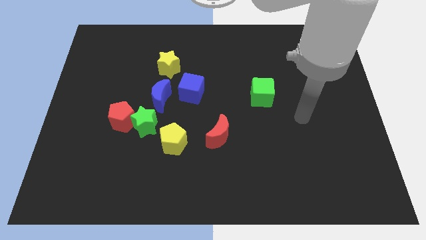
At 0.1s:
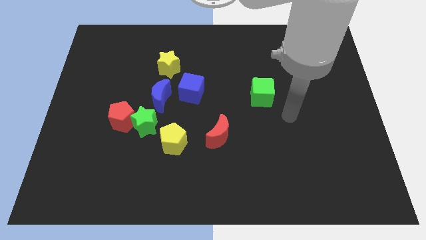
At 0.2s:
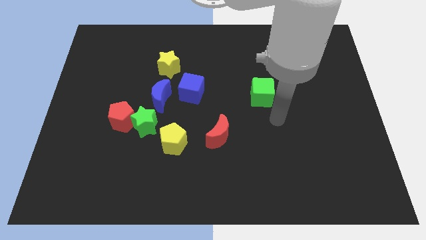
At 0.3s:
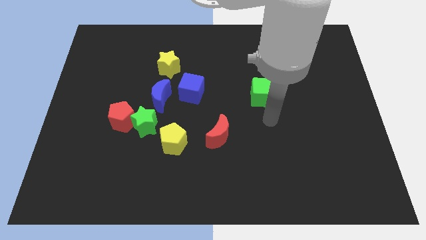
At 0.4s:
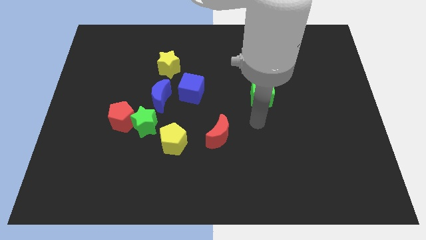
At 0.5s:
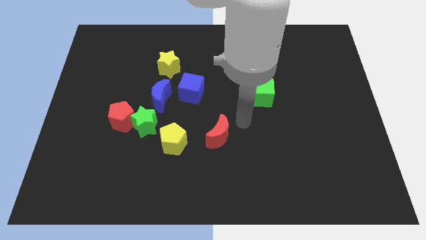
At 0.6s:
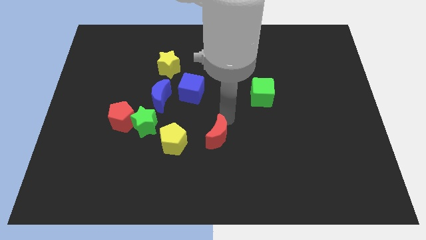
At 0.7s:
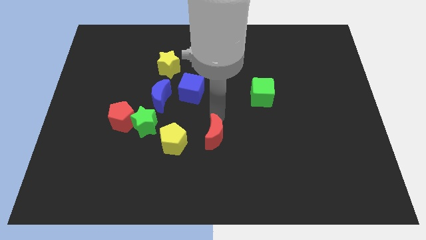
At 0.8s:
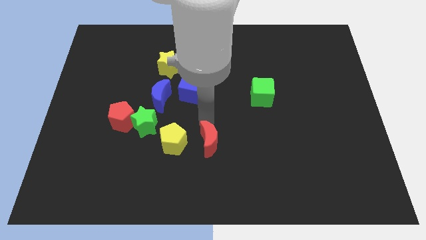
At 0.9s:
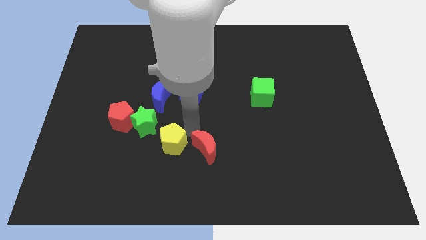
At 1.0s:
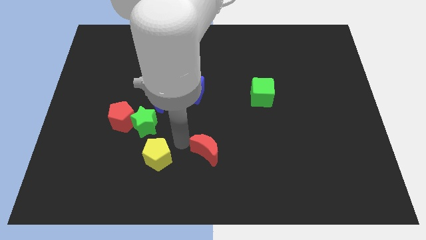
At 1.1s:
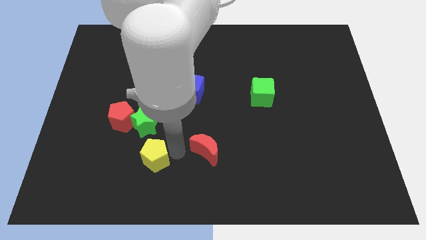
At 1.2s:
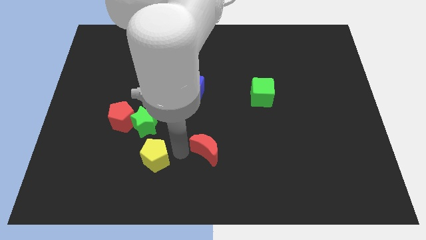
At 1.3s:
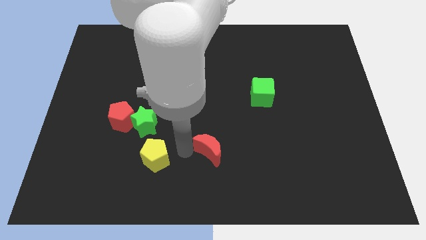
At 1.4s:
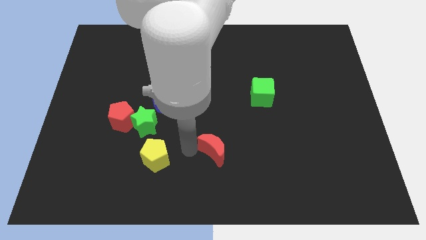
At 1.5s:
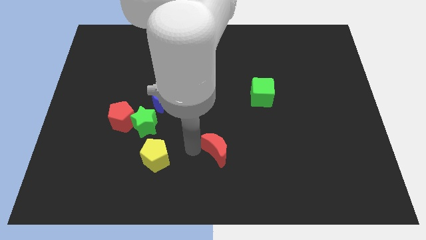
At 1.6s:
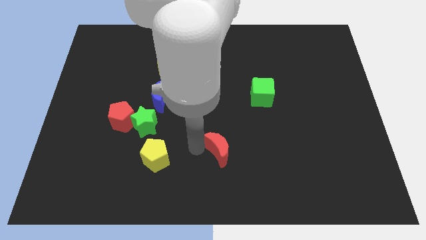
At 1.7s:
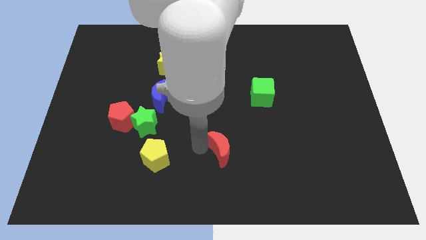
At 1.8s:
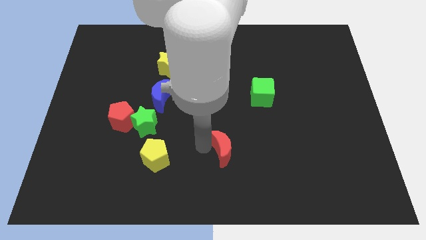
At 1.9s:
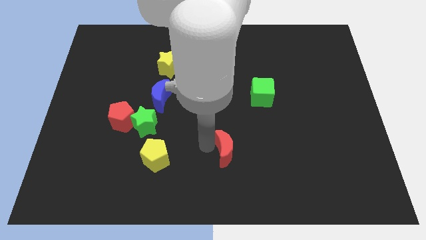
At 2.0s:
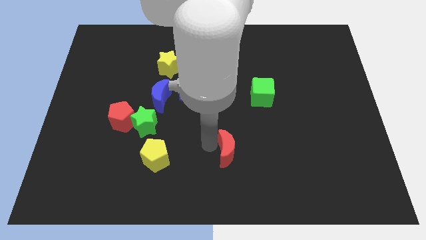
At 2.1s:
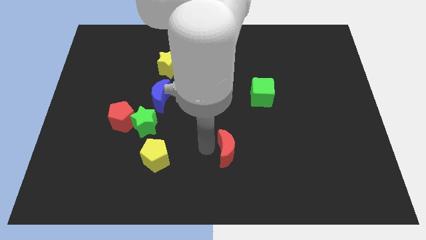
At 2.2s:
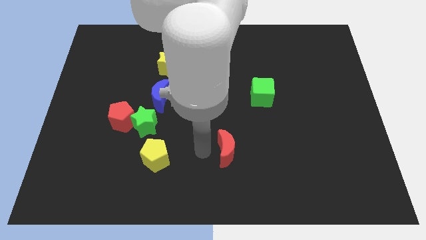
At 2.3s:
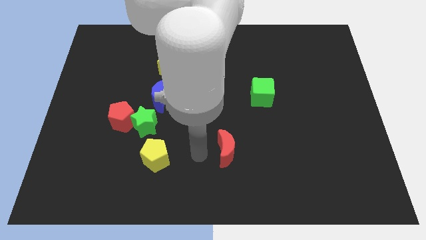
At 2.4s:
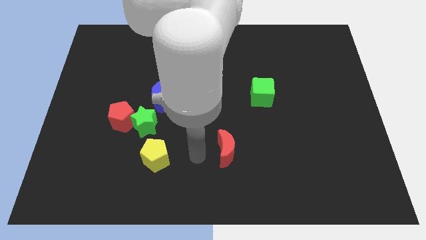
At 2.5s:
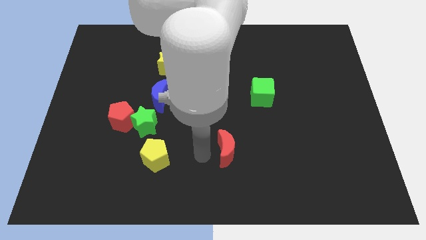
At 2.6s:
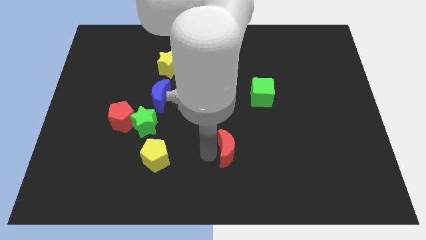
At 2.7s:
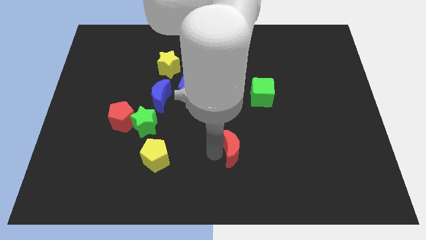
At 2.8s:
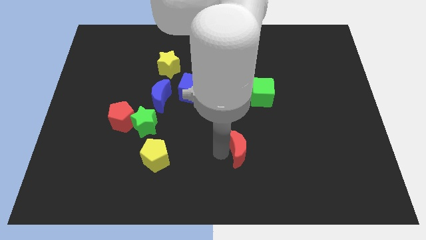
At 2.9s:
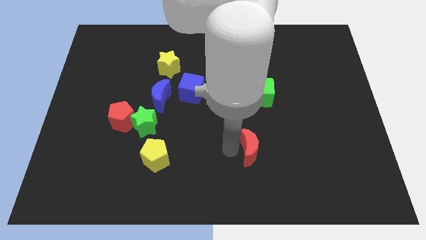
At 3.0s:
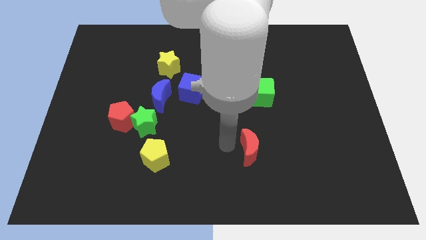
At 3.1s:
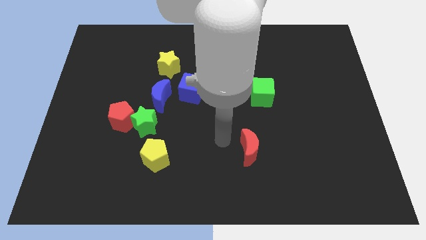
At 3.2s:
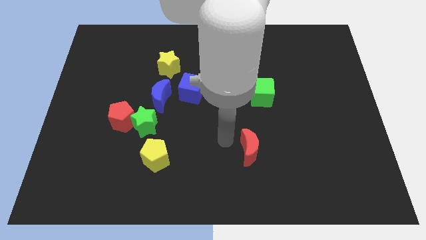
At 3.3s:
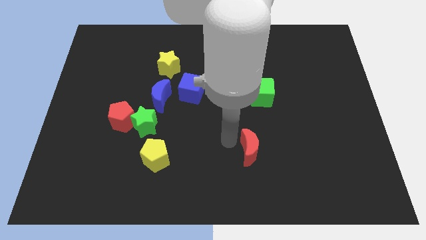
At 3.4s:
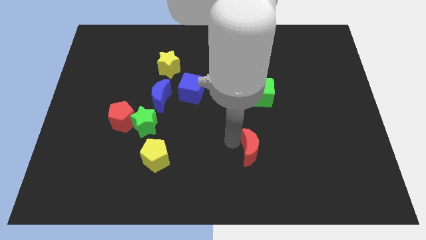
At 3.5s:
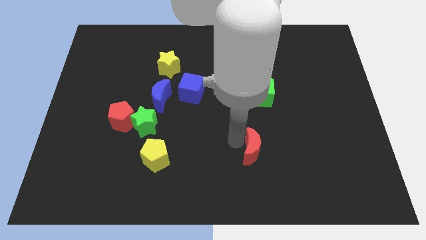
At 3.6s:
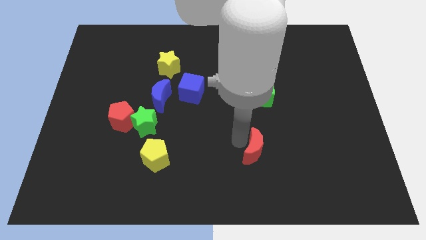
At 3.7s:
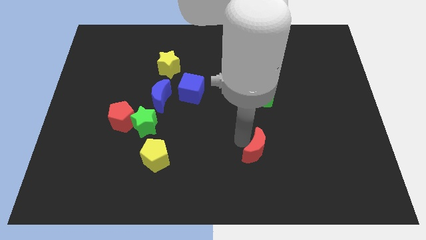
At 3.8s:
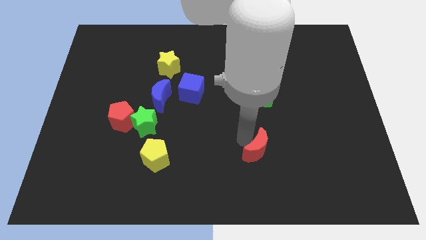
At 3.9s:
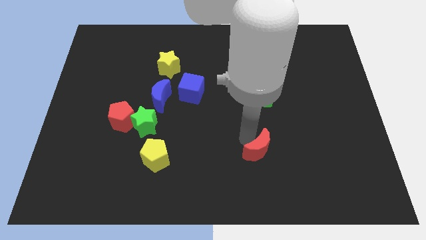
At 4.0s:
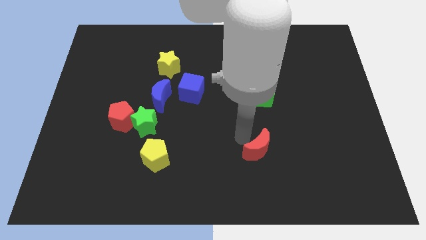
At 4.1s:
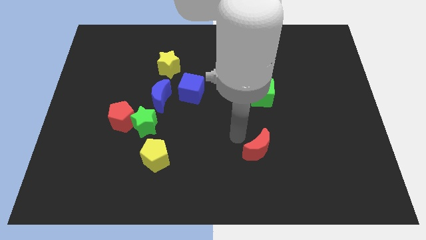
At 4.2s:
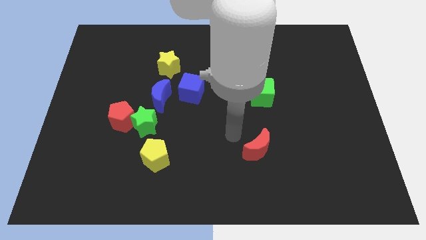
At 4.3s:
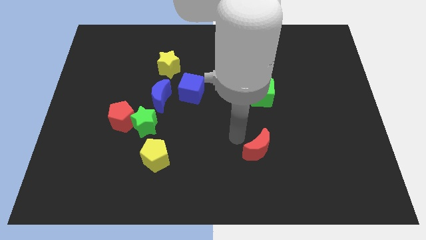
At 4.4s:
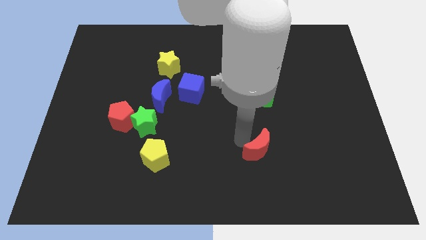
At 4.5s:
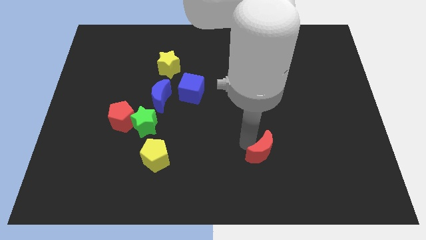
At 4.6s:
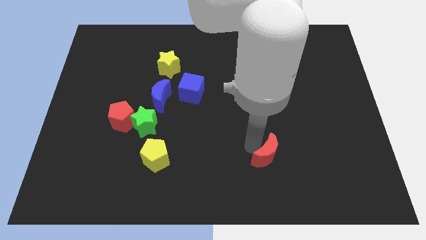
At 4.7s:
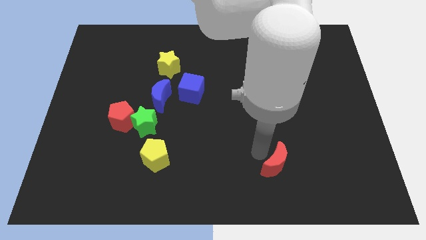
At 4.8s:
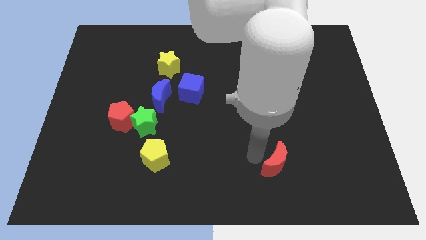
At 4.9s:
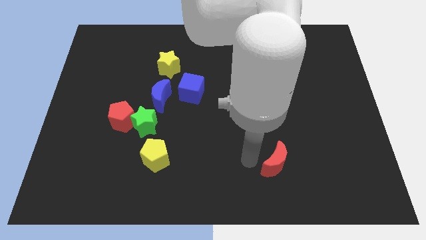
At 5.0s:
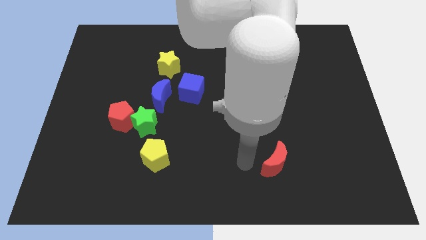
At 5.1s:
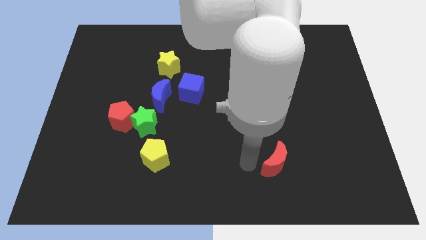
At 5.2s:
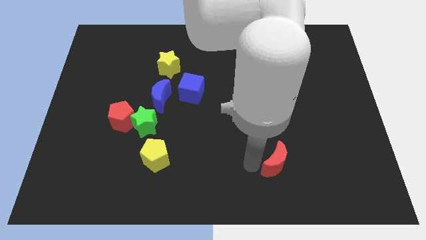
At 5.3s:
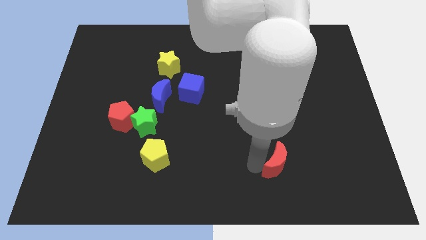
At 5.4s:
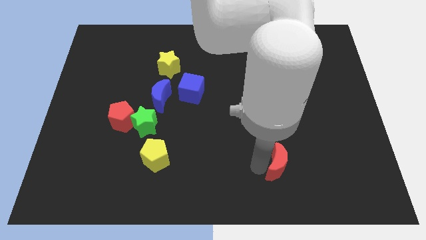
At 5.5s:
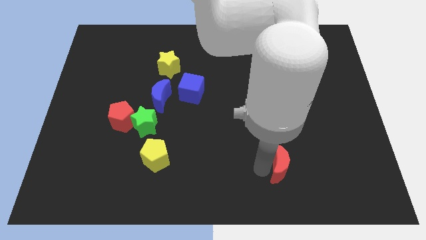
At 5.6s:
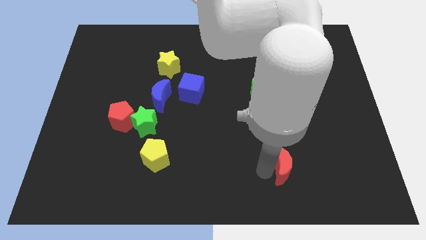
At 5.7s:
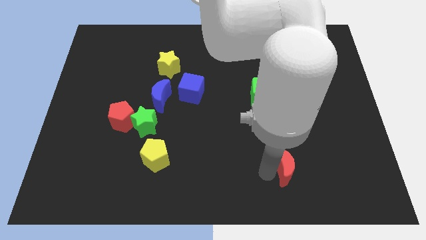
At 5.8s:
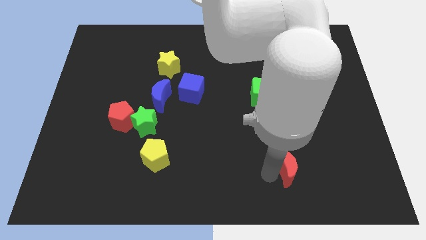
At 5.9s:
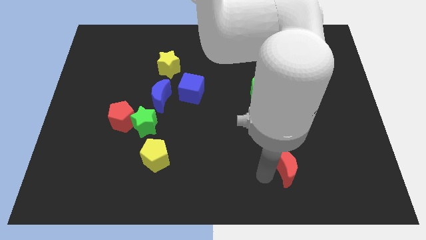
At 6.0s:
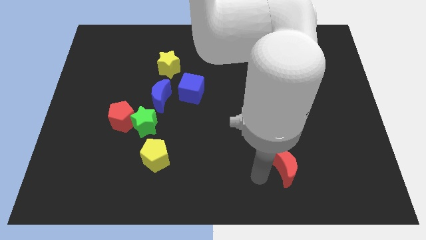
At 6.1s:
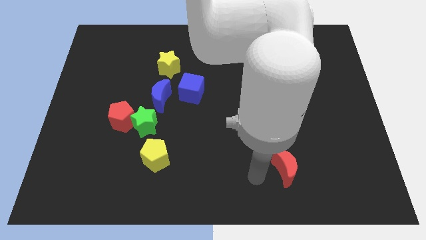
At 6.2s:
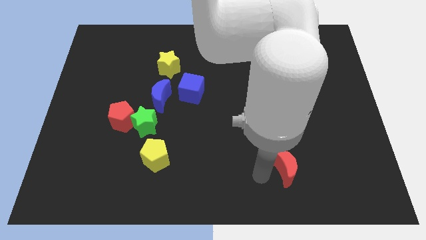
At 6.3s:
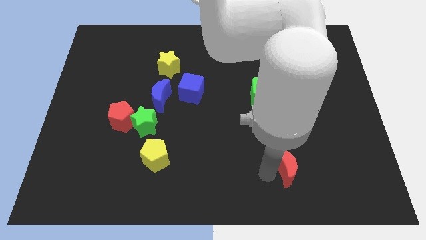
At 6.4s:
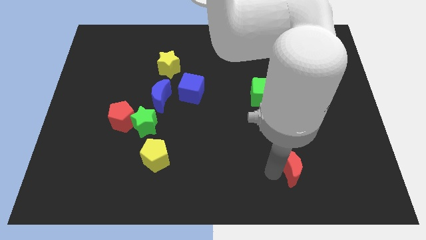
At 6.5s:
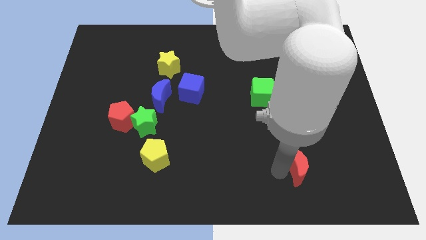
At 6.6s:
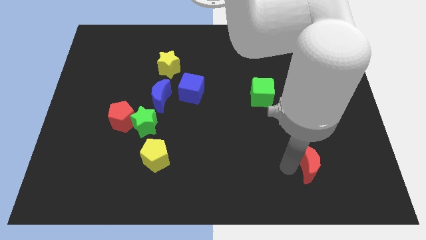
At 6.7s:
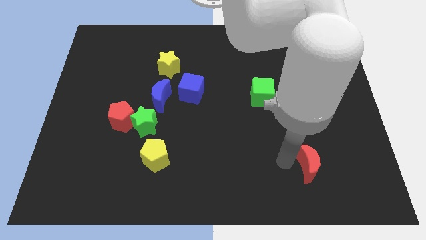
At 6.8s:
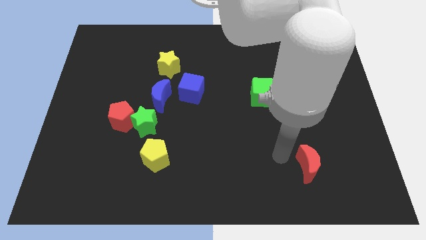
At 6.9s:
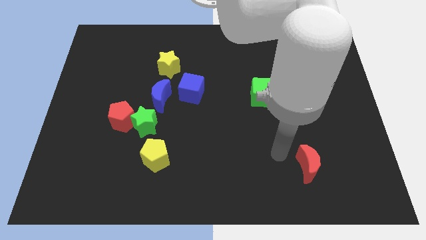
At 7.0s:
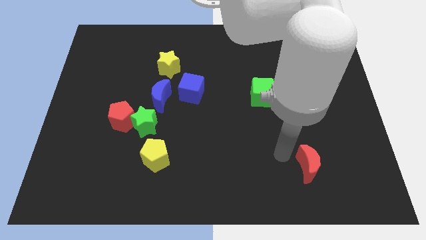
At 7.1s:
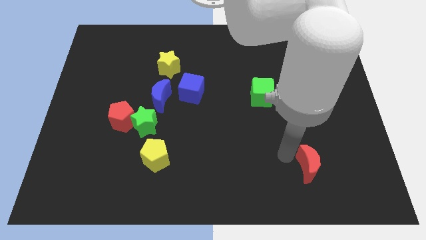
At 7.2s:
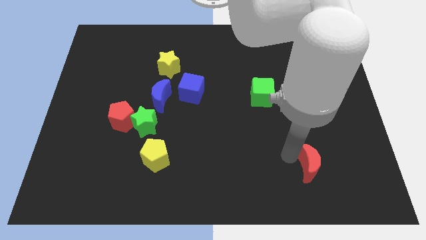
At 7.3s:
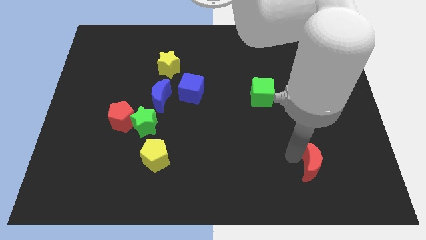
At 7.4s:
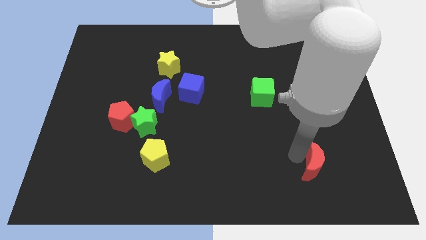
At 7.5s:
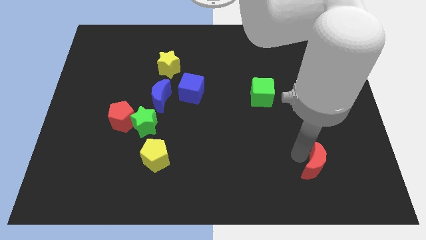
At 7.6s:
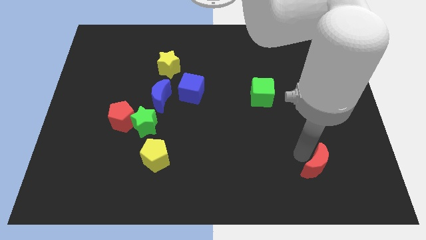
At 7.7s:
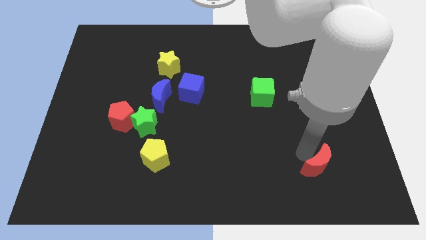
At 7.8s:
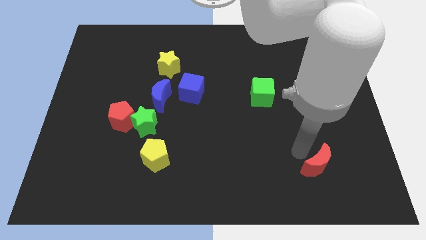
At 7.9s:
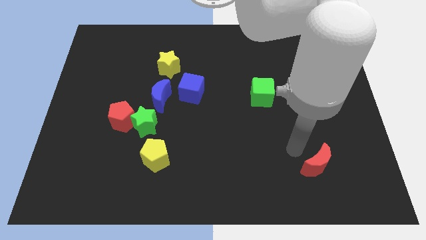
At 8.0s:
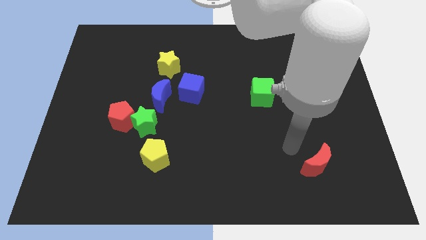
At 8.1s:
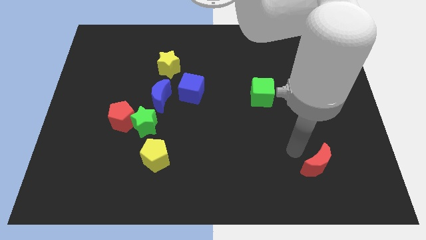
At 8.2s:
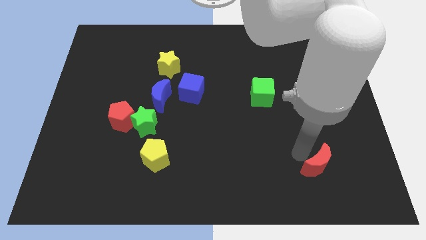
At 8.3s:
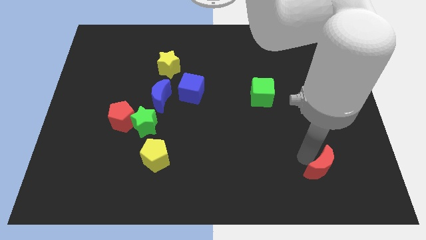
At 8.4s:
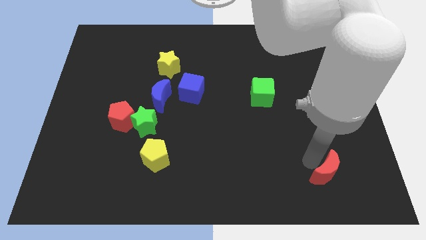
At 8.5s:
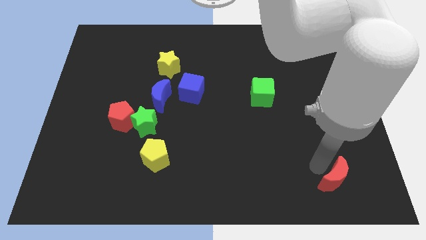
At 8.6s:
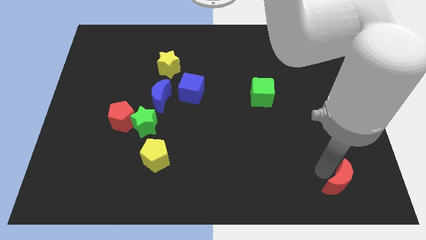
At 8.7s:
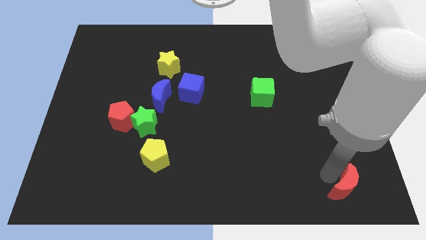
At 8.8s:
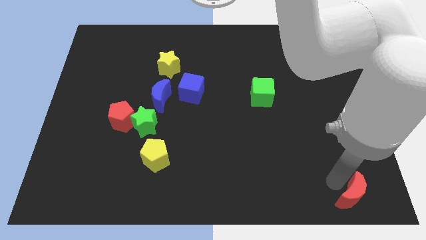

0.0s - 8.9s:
move the red moon to the lower right corner
